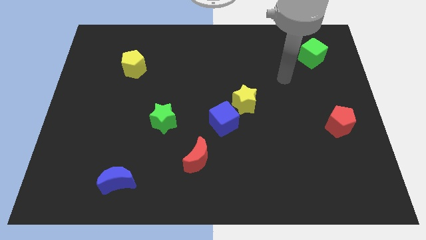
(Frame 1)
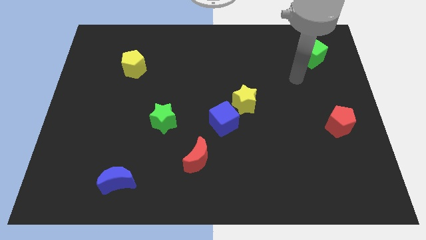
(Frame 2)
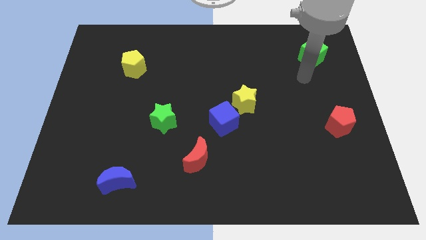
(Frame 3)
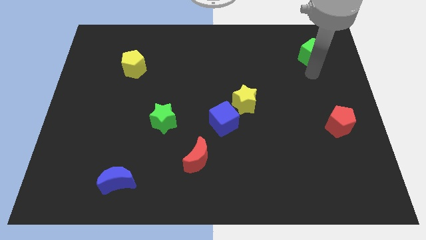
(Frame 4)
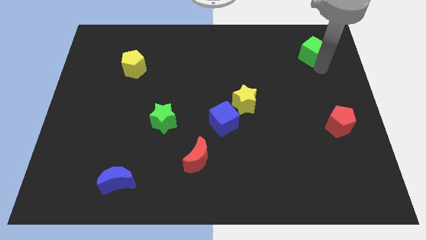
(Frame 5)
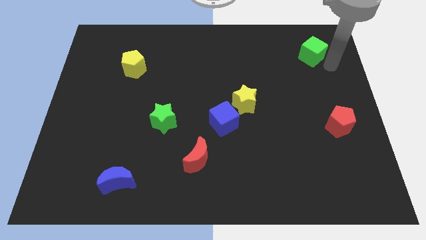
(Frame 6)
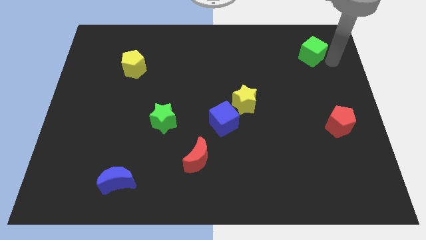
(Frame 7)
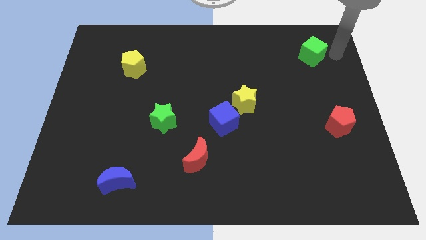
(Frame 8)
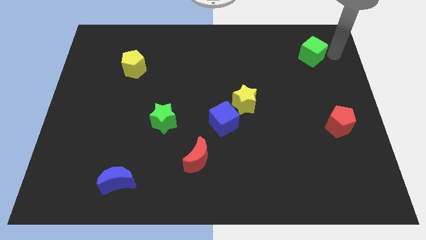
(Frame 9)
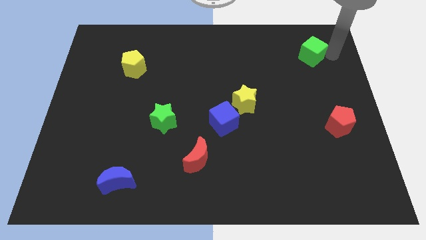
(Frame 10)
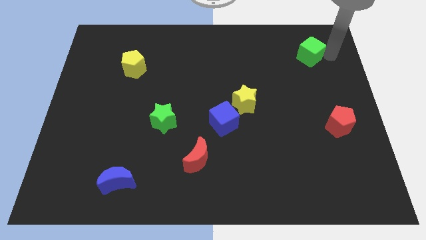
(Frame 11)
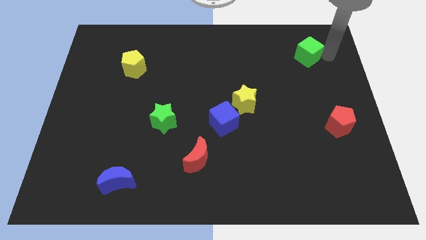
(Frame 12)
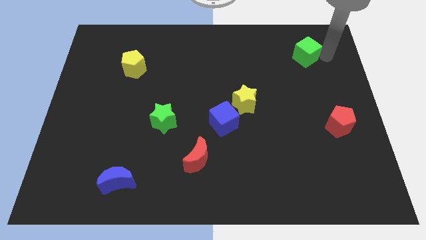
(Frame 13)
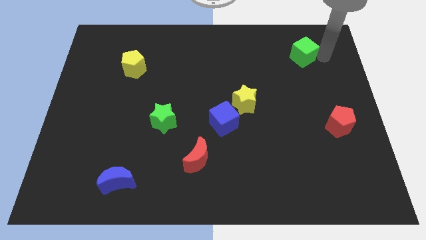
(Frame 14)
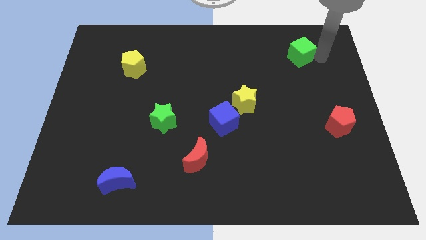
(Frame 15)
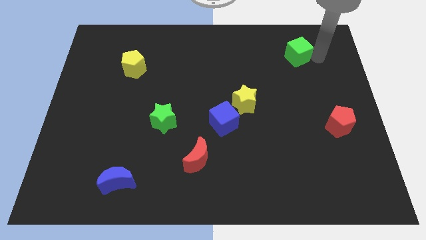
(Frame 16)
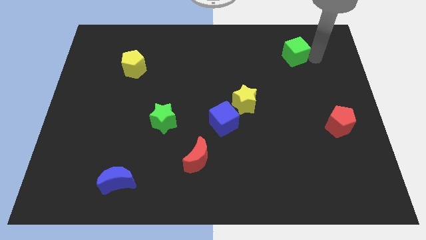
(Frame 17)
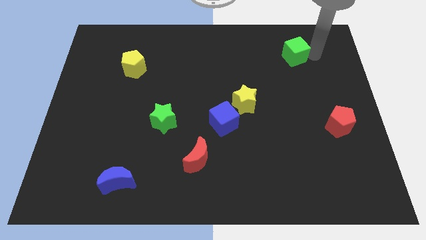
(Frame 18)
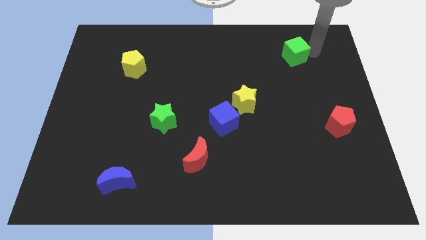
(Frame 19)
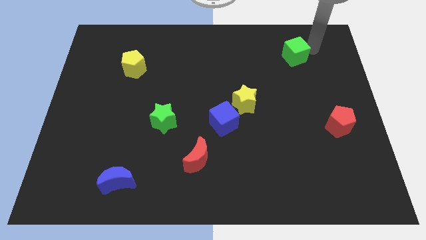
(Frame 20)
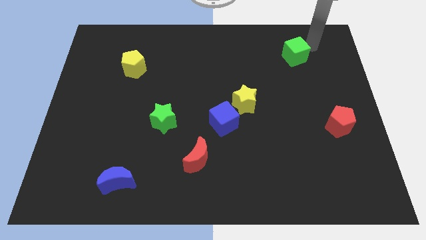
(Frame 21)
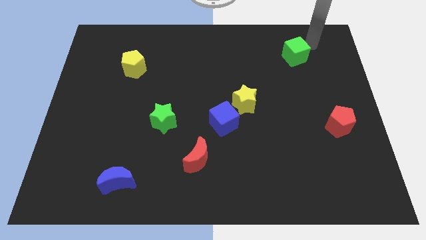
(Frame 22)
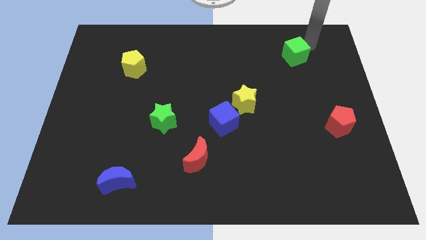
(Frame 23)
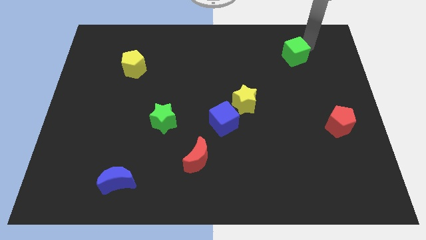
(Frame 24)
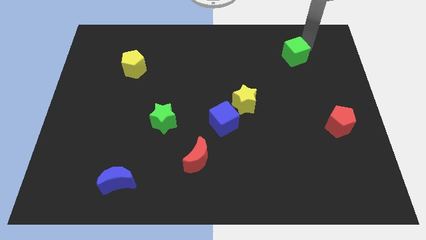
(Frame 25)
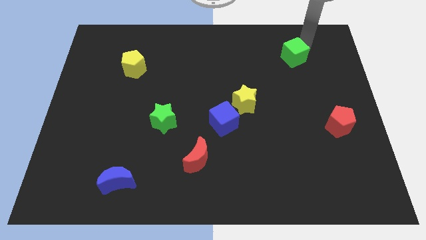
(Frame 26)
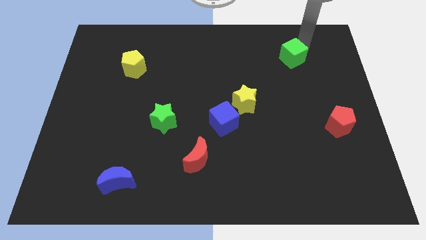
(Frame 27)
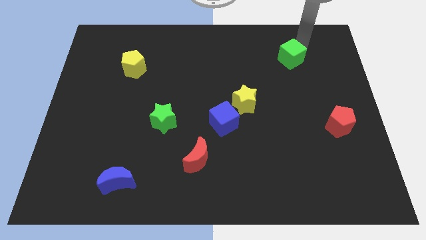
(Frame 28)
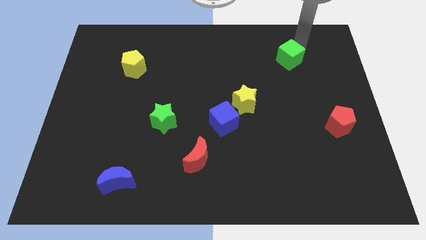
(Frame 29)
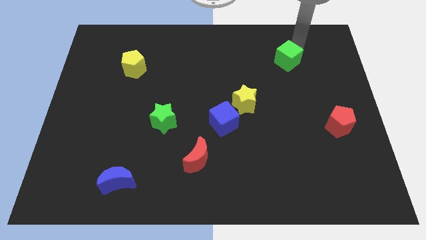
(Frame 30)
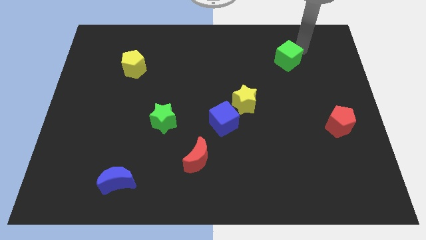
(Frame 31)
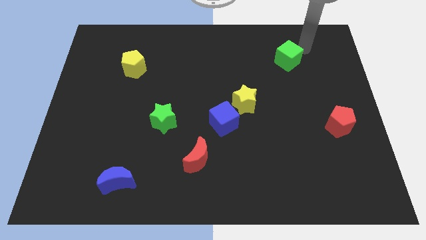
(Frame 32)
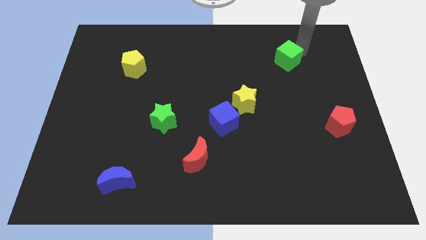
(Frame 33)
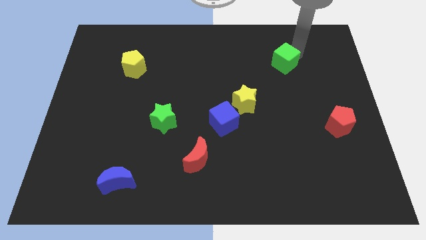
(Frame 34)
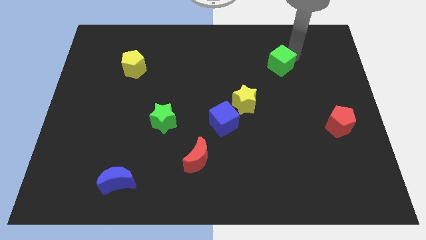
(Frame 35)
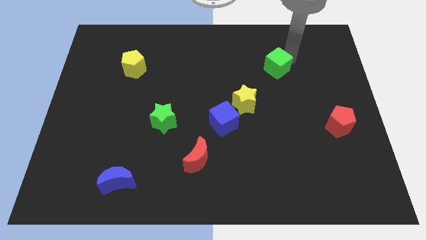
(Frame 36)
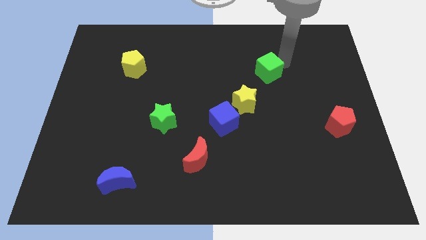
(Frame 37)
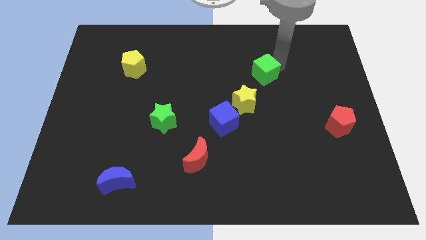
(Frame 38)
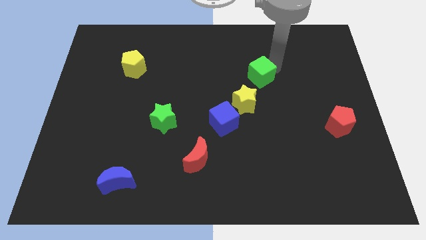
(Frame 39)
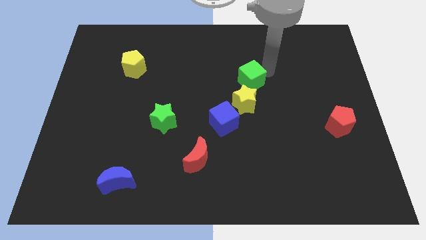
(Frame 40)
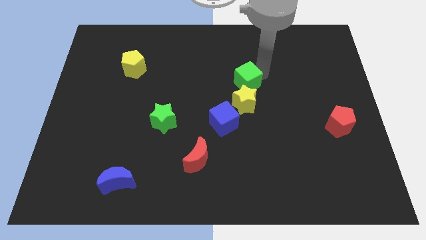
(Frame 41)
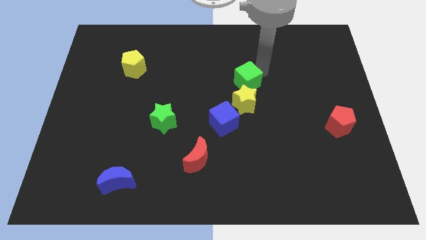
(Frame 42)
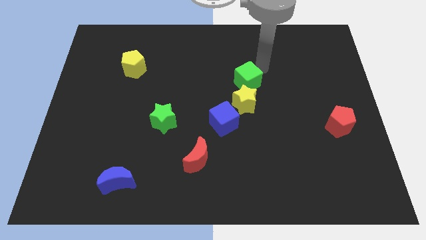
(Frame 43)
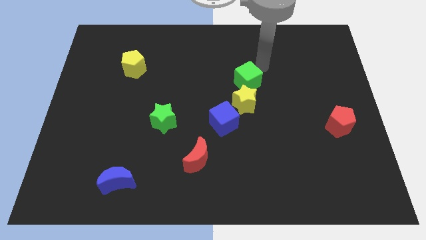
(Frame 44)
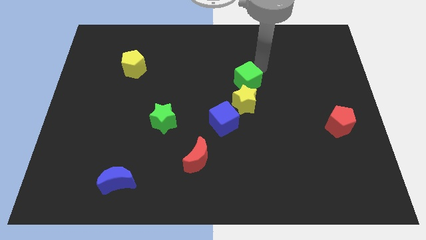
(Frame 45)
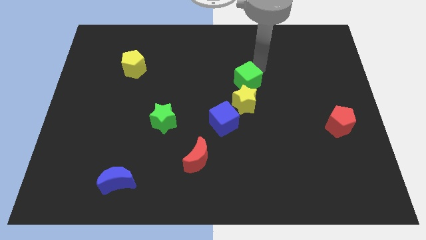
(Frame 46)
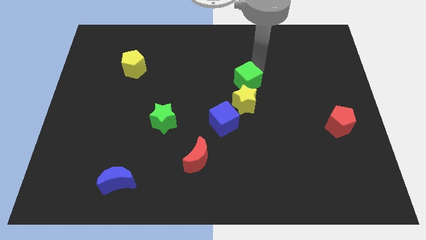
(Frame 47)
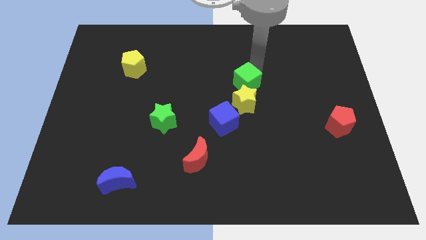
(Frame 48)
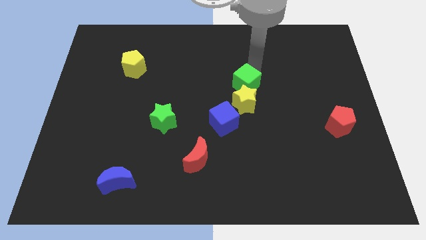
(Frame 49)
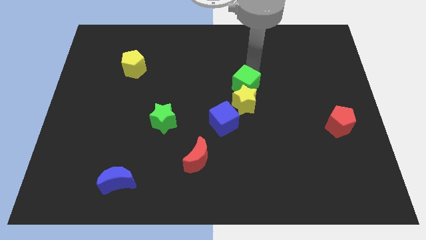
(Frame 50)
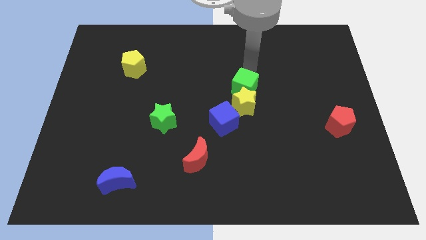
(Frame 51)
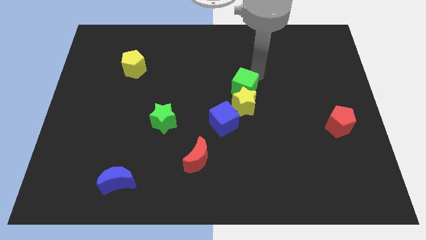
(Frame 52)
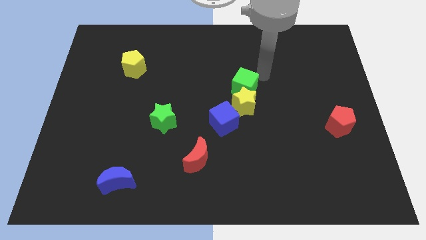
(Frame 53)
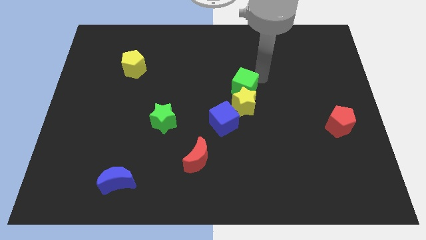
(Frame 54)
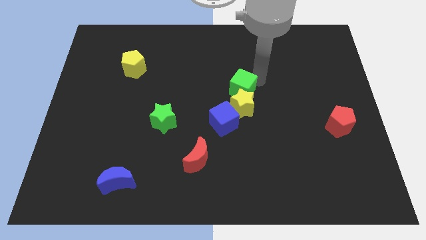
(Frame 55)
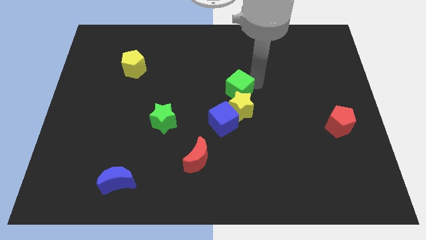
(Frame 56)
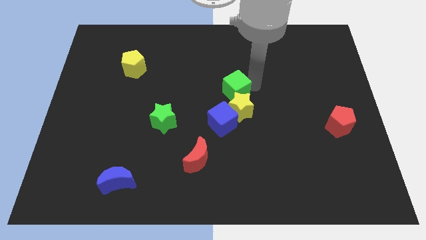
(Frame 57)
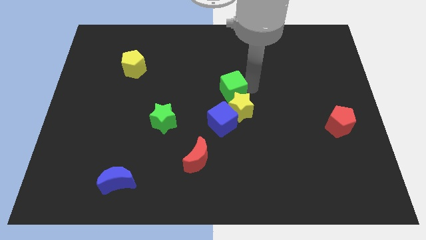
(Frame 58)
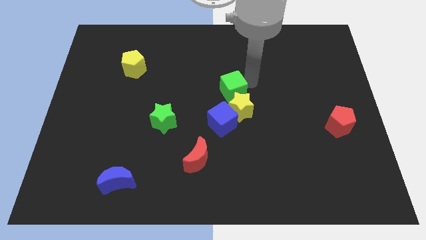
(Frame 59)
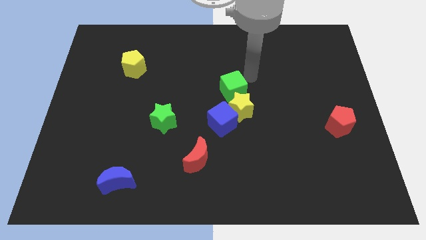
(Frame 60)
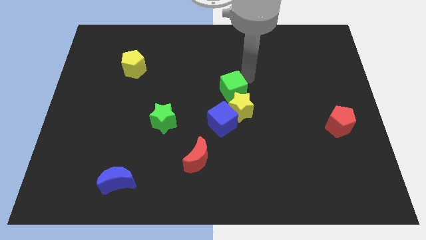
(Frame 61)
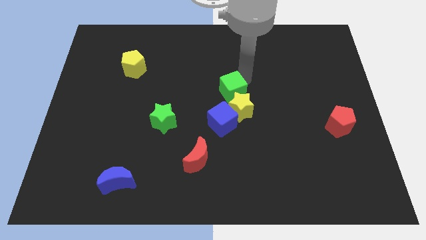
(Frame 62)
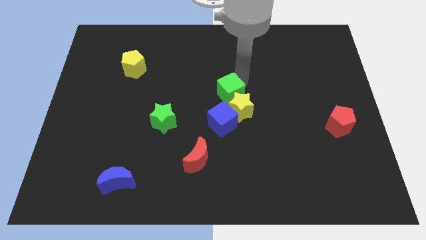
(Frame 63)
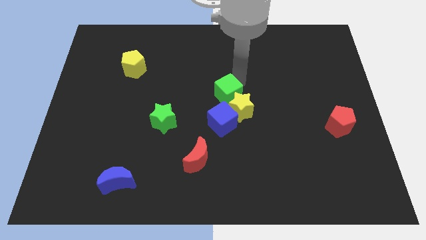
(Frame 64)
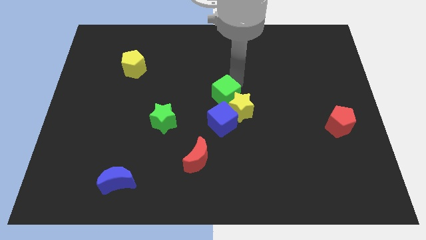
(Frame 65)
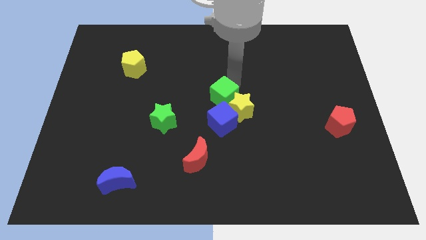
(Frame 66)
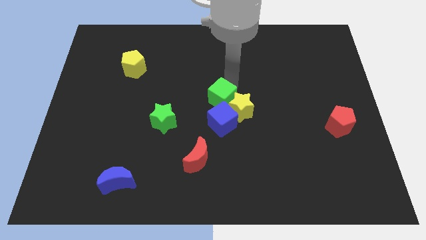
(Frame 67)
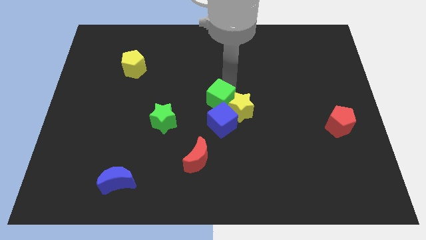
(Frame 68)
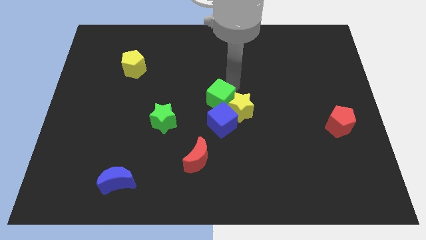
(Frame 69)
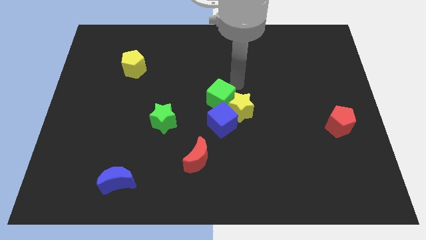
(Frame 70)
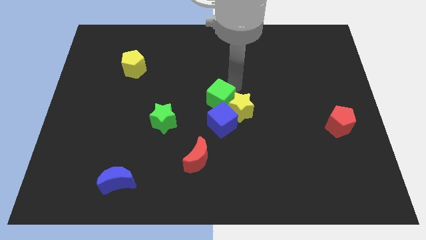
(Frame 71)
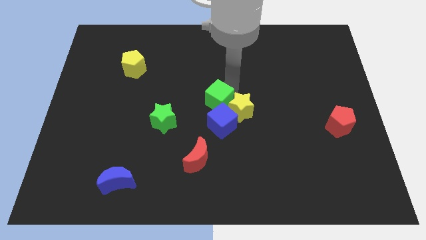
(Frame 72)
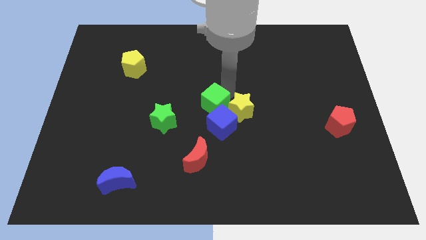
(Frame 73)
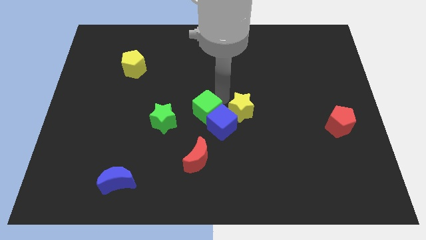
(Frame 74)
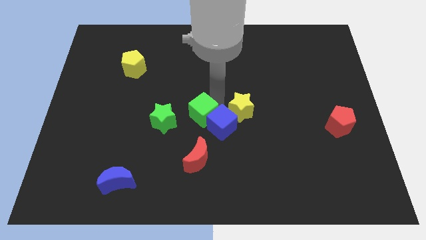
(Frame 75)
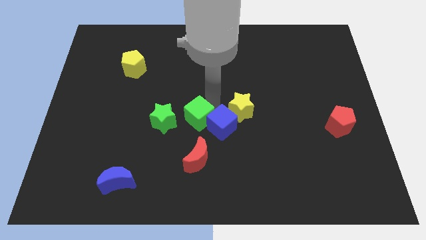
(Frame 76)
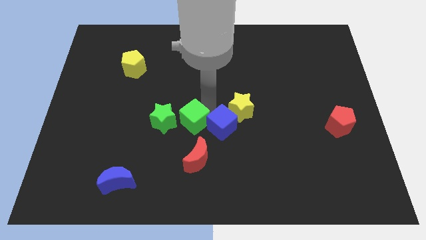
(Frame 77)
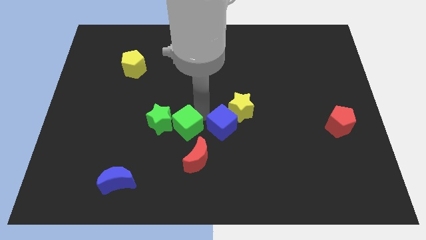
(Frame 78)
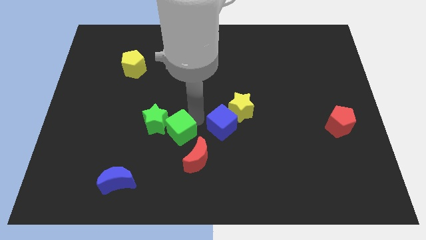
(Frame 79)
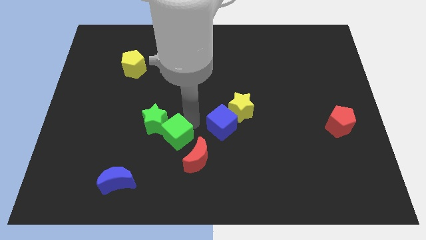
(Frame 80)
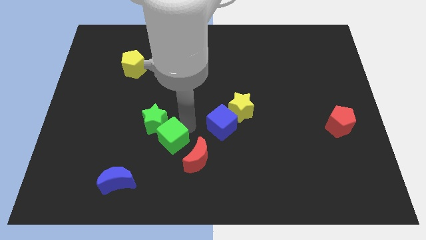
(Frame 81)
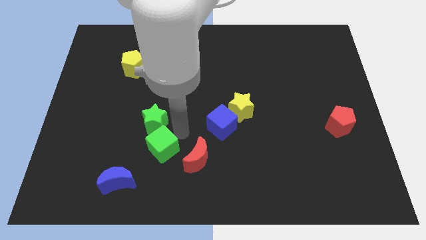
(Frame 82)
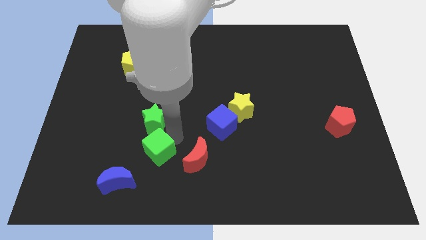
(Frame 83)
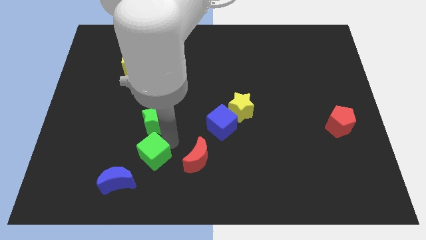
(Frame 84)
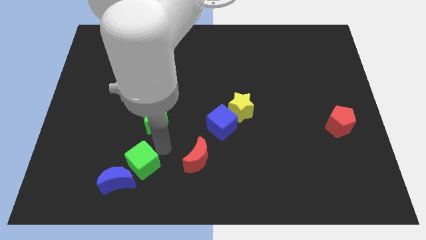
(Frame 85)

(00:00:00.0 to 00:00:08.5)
slide the green cube to the blue moon
